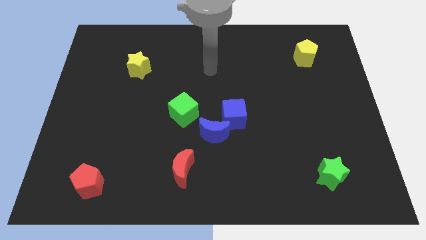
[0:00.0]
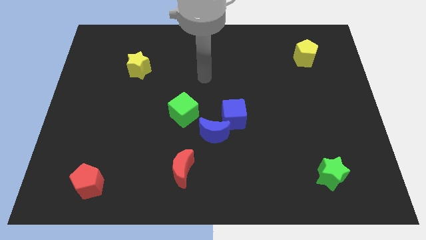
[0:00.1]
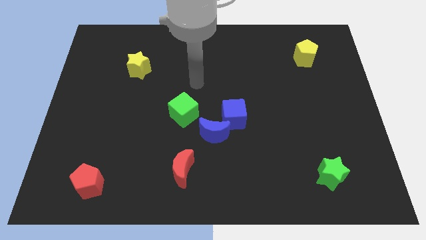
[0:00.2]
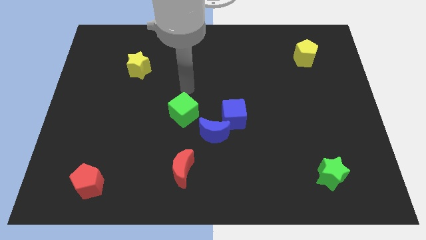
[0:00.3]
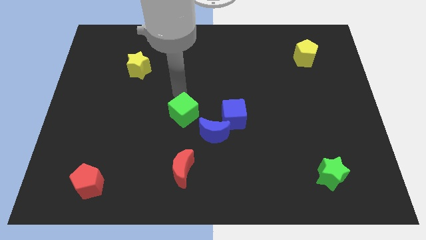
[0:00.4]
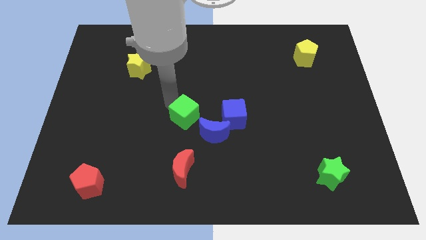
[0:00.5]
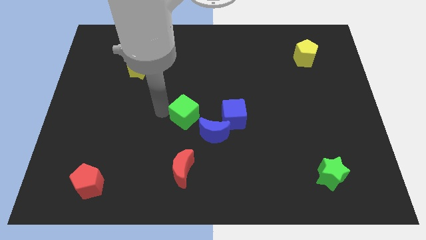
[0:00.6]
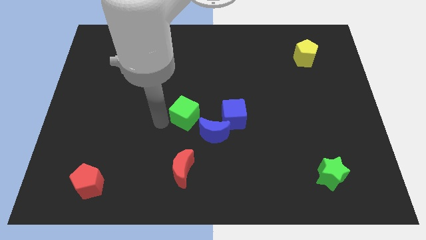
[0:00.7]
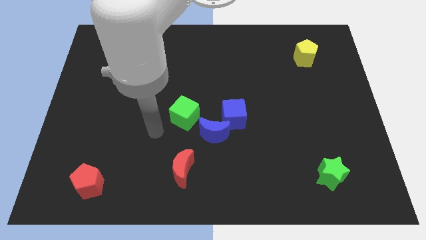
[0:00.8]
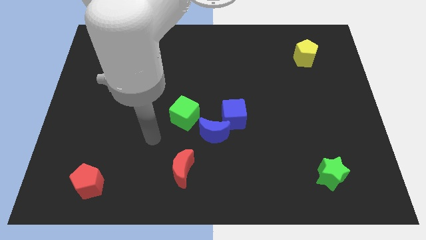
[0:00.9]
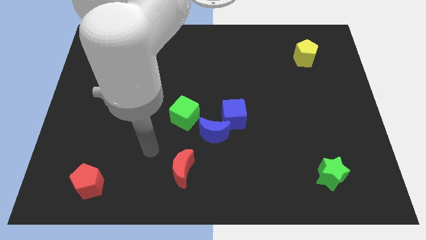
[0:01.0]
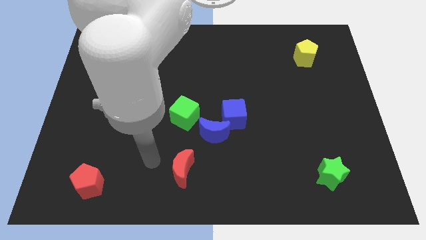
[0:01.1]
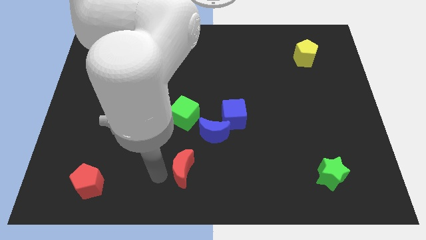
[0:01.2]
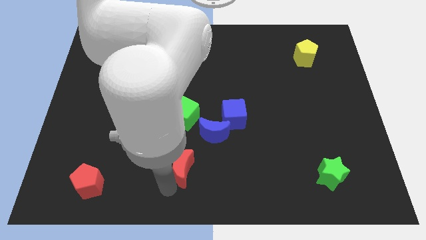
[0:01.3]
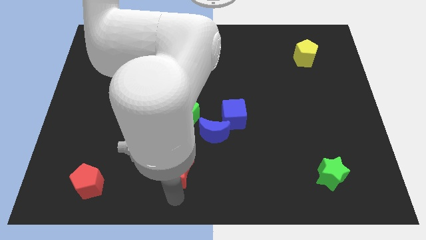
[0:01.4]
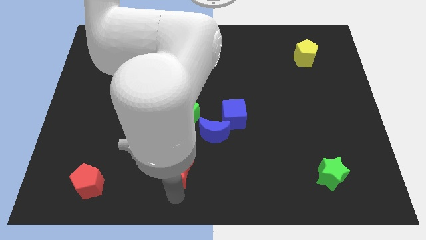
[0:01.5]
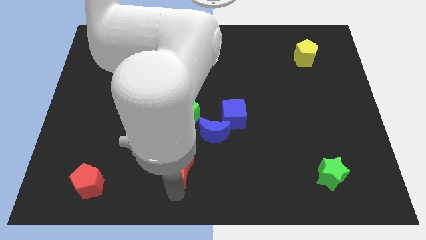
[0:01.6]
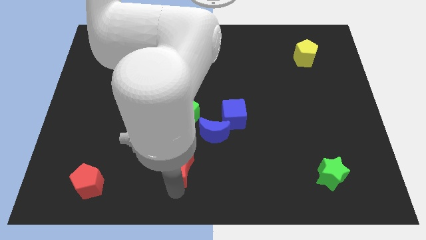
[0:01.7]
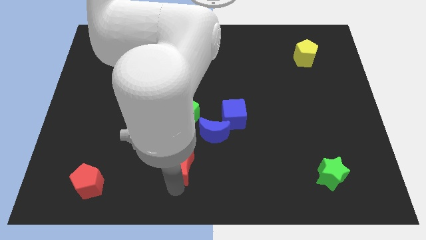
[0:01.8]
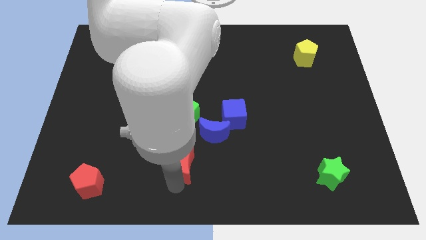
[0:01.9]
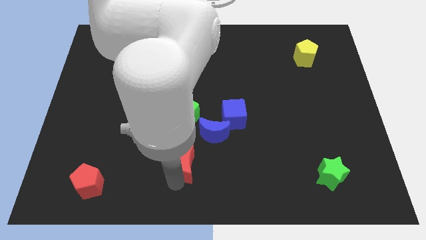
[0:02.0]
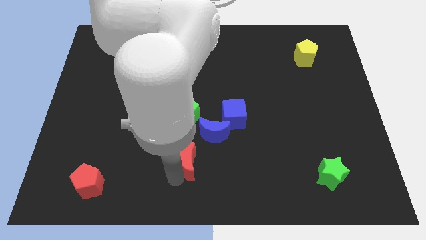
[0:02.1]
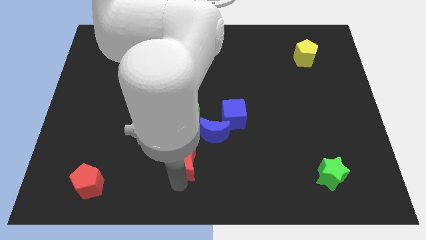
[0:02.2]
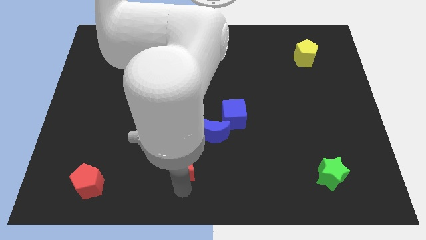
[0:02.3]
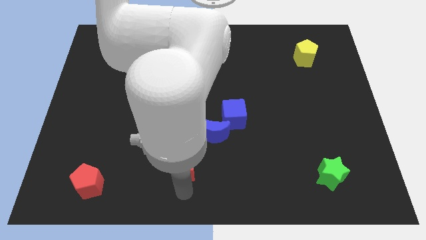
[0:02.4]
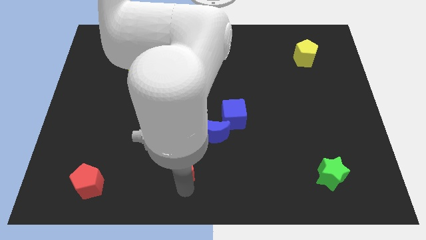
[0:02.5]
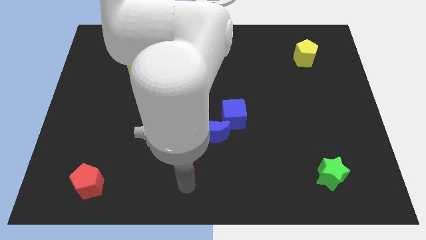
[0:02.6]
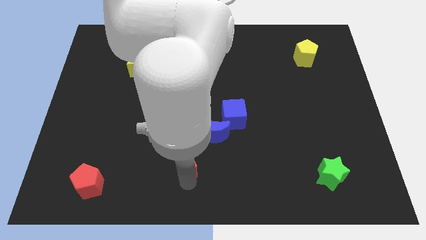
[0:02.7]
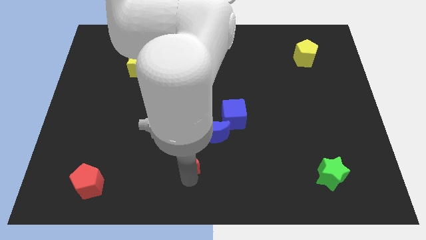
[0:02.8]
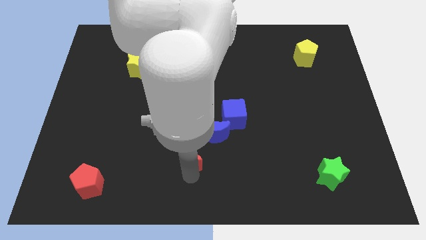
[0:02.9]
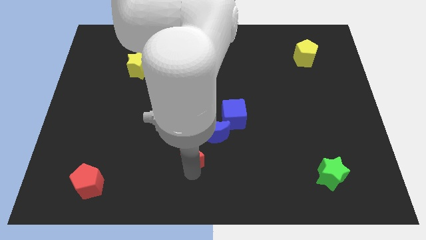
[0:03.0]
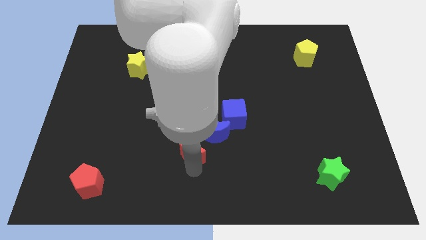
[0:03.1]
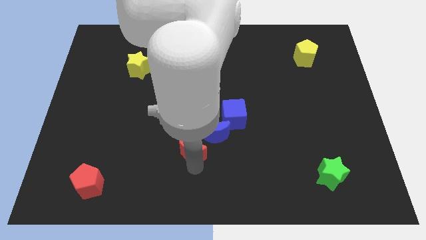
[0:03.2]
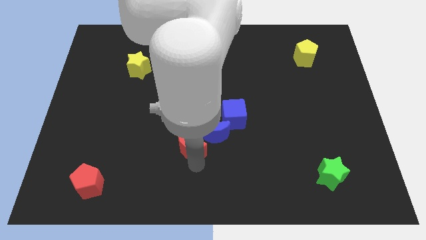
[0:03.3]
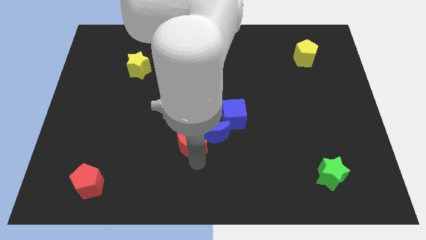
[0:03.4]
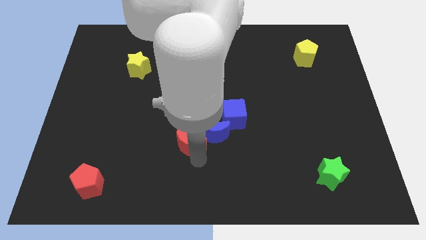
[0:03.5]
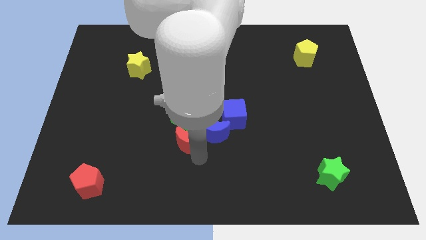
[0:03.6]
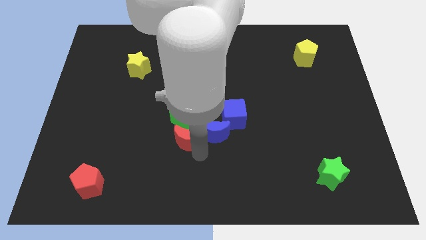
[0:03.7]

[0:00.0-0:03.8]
move the red moon upwards slightly

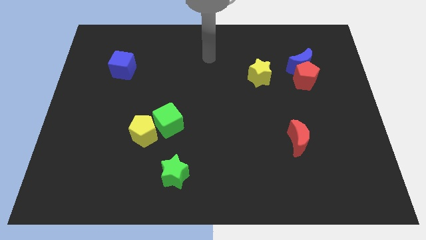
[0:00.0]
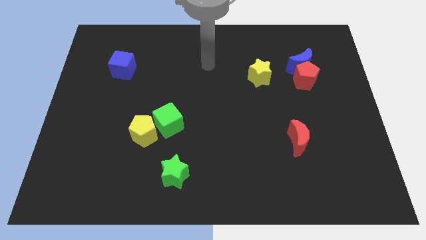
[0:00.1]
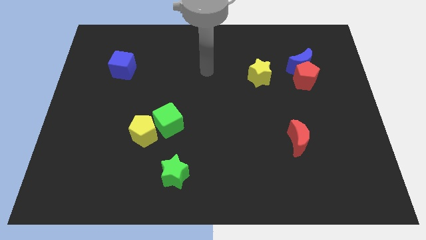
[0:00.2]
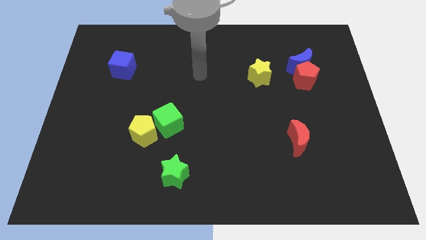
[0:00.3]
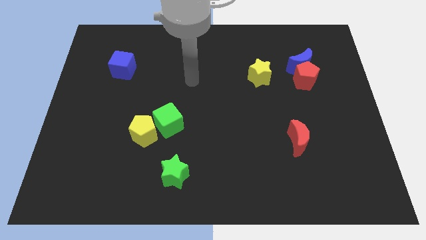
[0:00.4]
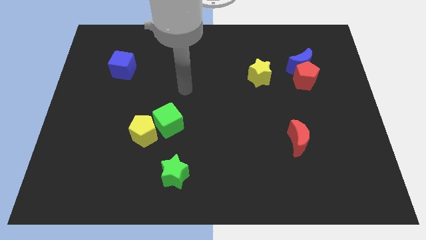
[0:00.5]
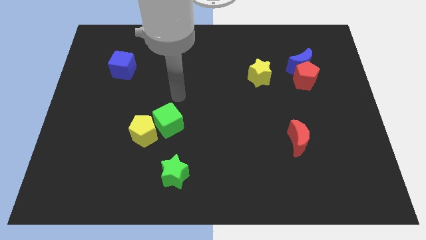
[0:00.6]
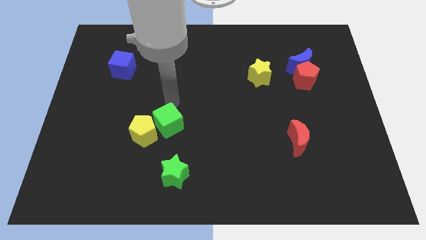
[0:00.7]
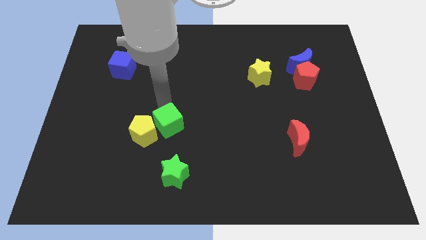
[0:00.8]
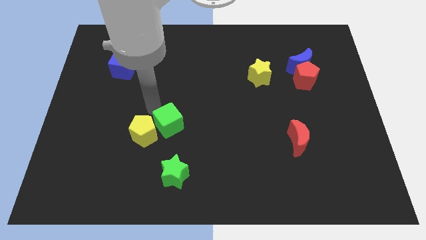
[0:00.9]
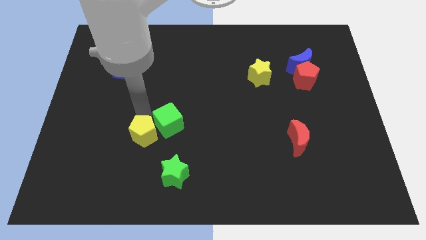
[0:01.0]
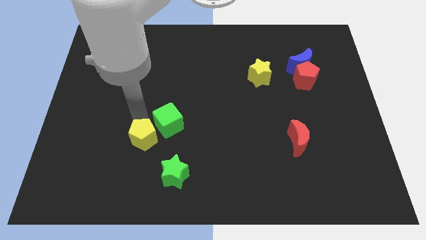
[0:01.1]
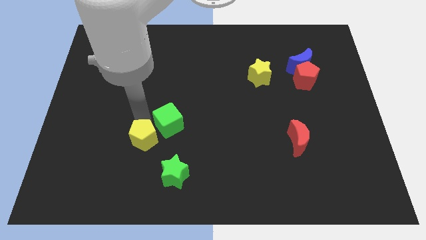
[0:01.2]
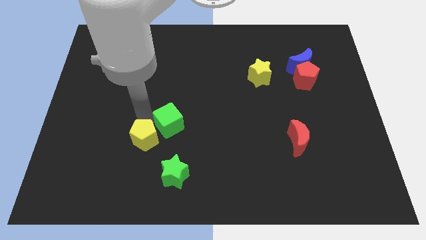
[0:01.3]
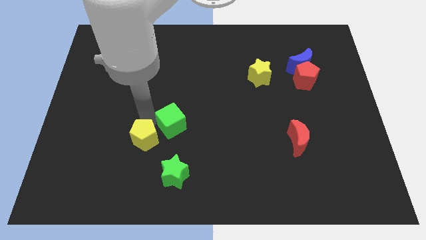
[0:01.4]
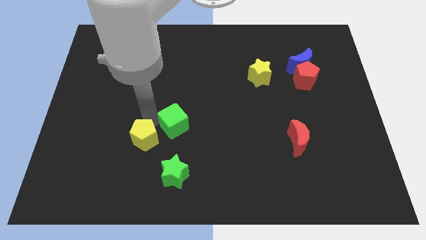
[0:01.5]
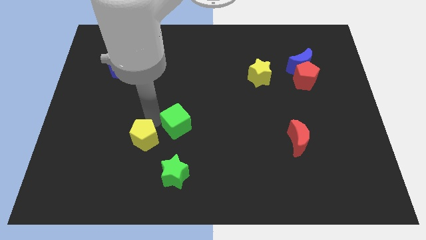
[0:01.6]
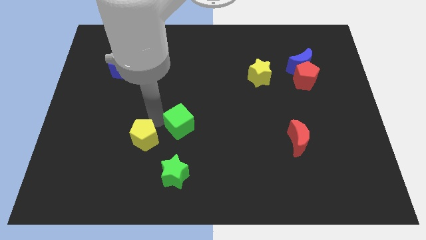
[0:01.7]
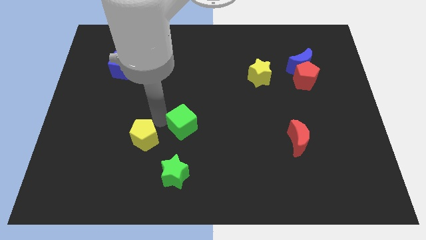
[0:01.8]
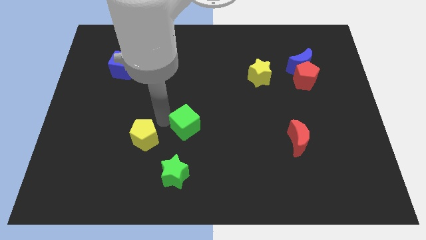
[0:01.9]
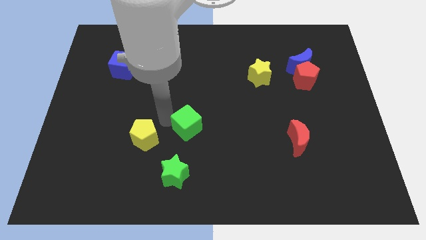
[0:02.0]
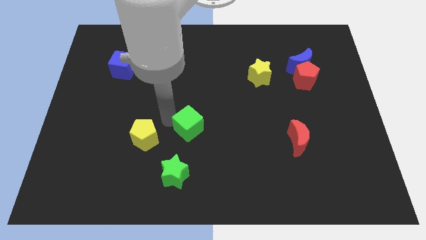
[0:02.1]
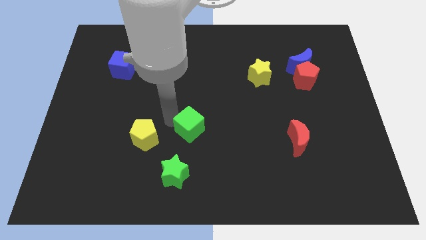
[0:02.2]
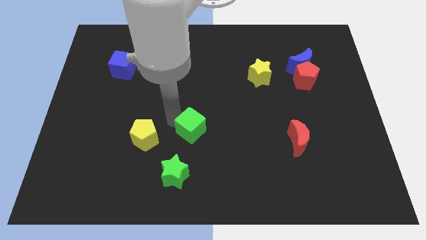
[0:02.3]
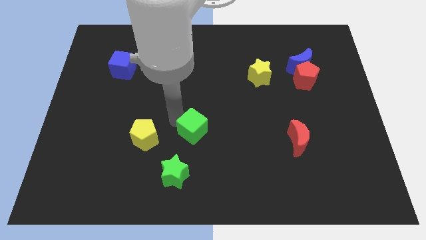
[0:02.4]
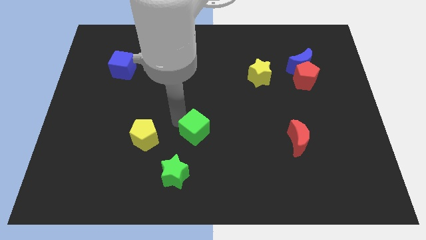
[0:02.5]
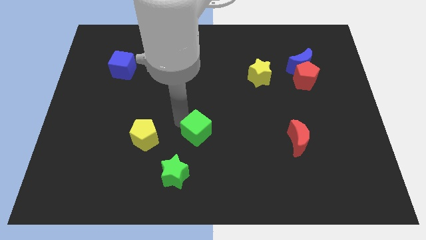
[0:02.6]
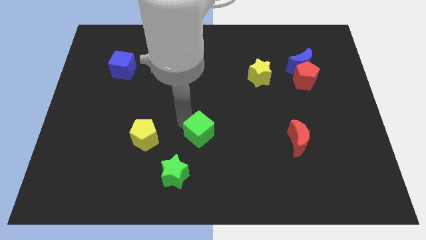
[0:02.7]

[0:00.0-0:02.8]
push the green cube right slightly

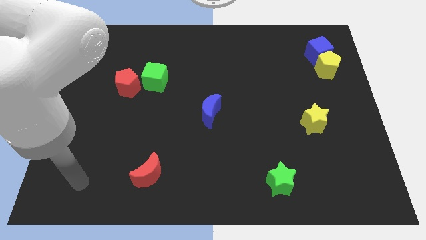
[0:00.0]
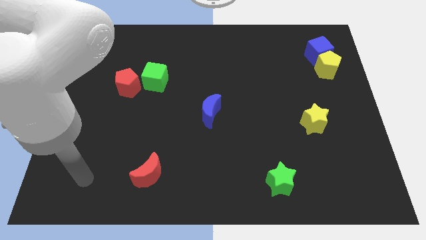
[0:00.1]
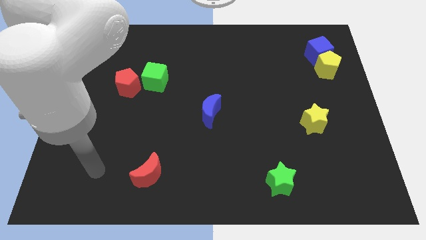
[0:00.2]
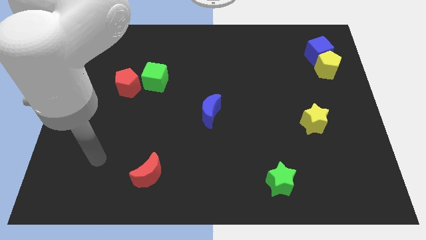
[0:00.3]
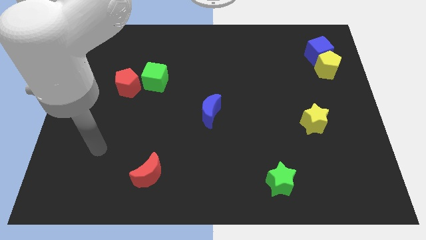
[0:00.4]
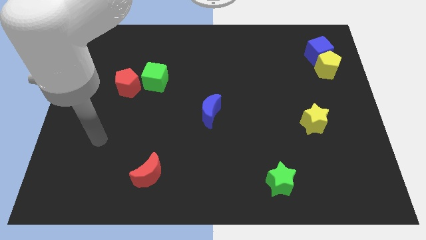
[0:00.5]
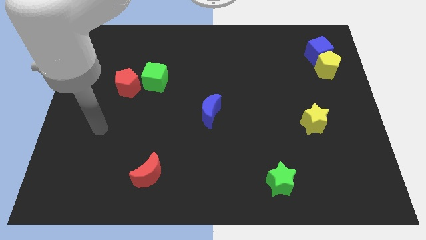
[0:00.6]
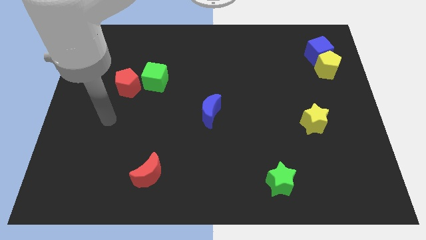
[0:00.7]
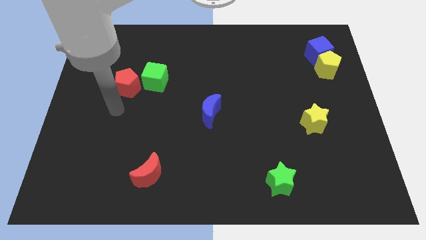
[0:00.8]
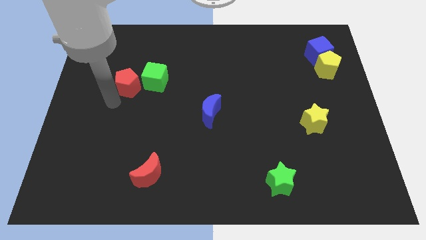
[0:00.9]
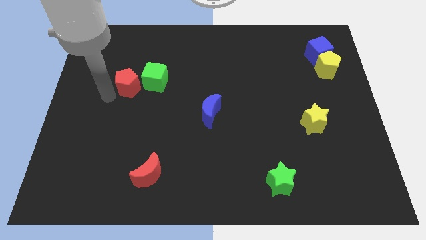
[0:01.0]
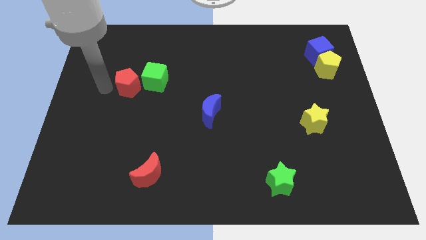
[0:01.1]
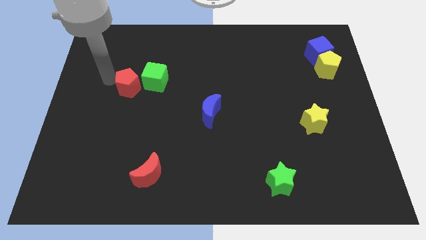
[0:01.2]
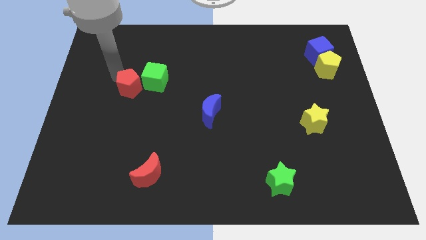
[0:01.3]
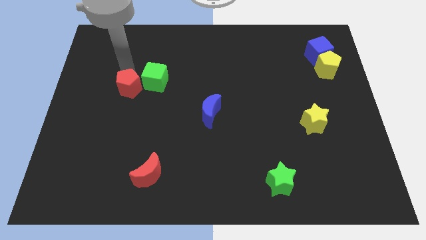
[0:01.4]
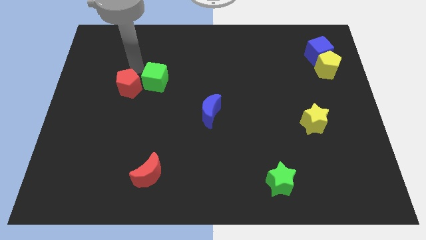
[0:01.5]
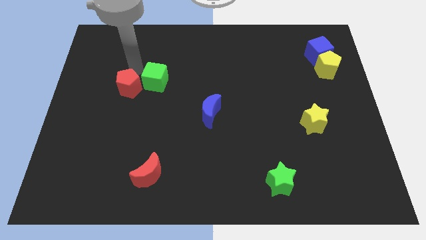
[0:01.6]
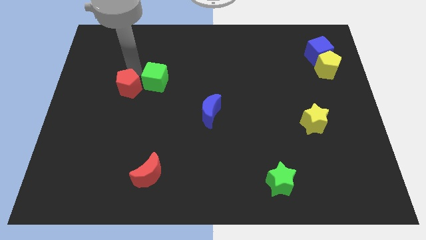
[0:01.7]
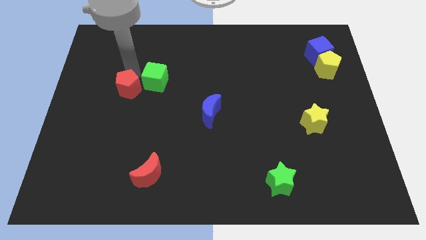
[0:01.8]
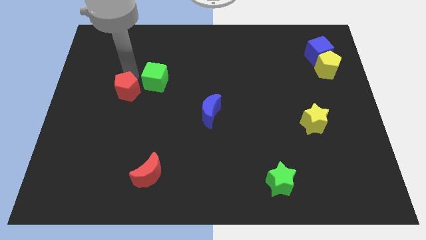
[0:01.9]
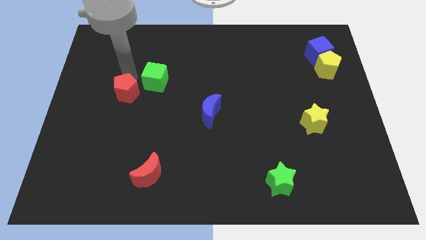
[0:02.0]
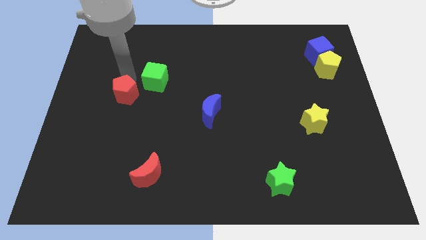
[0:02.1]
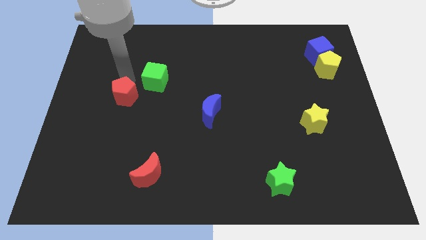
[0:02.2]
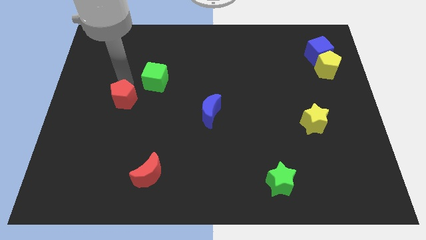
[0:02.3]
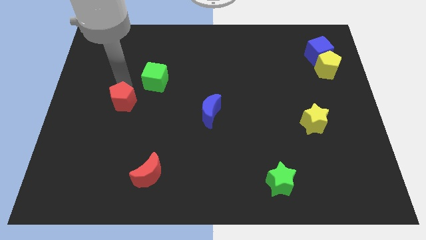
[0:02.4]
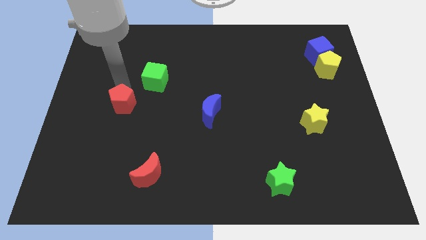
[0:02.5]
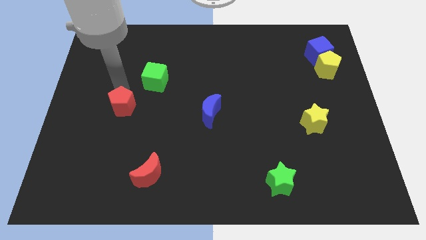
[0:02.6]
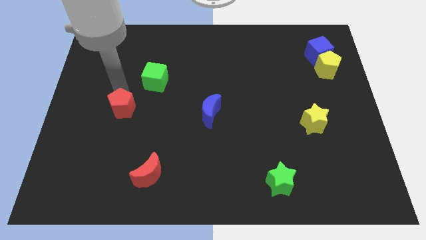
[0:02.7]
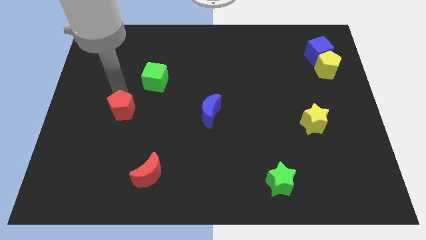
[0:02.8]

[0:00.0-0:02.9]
slightly push the red pentagon down
